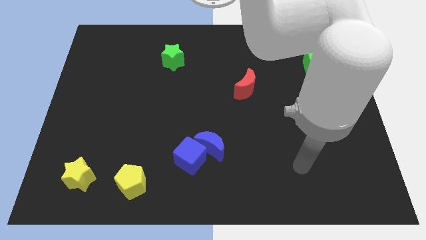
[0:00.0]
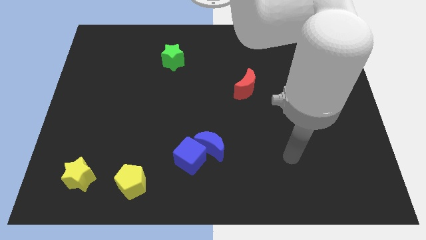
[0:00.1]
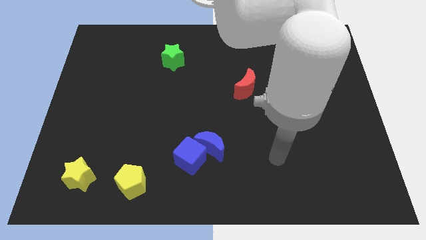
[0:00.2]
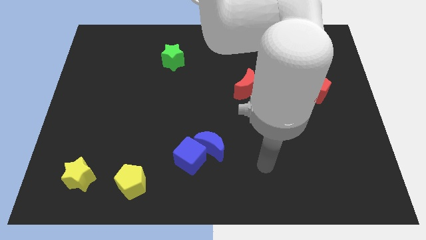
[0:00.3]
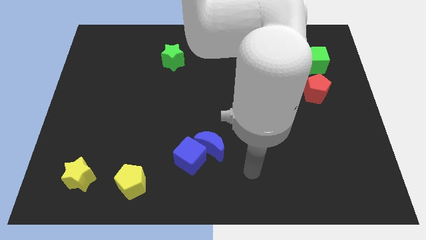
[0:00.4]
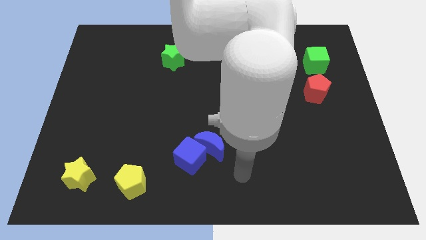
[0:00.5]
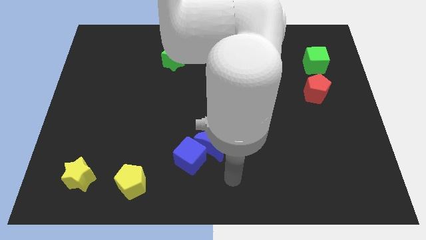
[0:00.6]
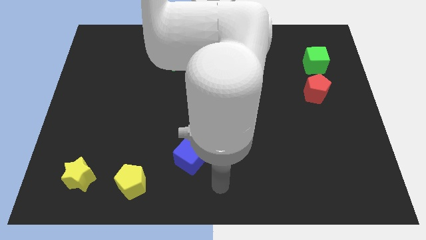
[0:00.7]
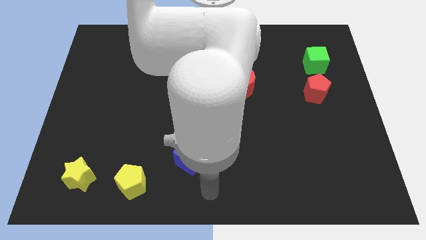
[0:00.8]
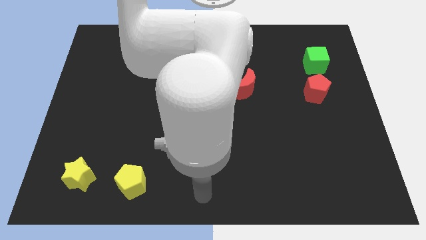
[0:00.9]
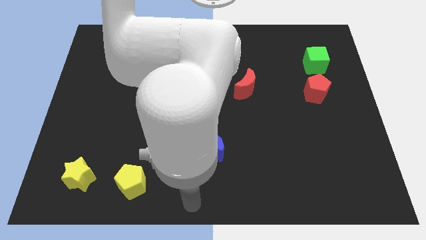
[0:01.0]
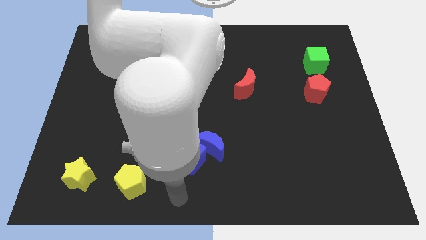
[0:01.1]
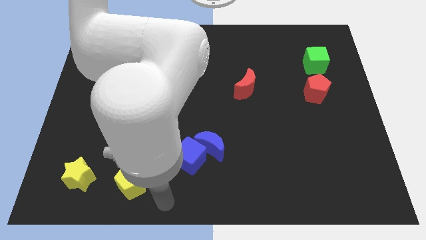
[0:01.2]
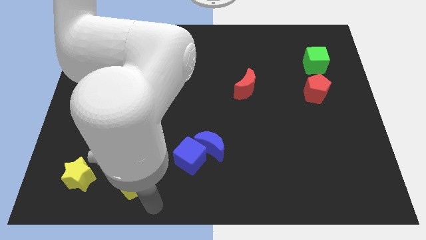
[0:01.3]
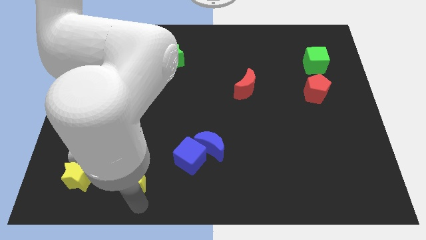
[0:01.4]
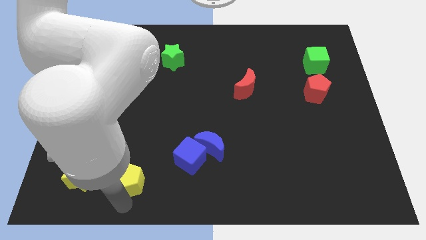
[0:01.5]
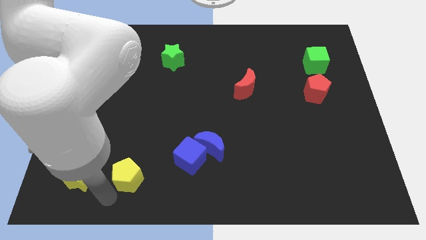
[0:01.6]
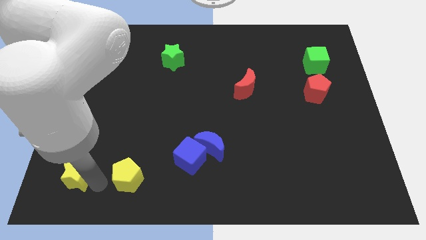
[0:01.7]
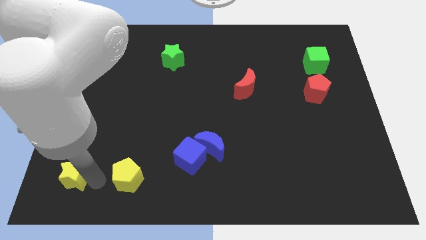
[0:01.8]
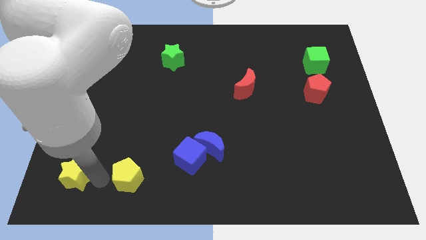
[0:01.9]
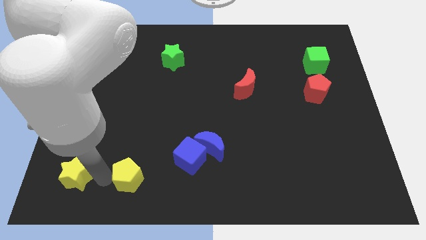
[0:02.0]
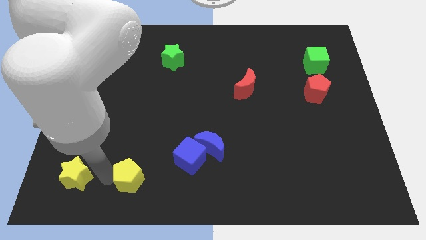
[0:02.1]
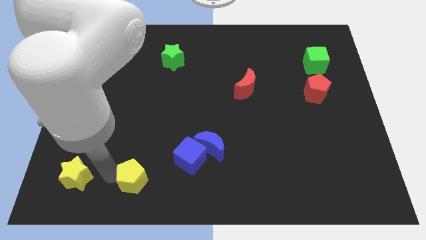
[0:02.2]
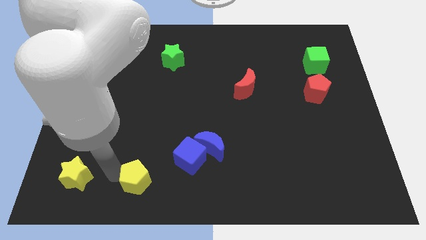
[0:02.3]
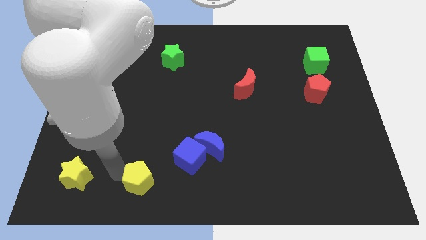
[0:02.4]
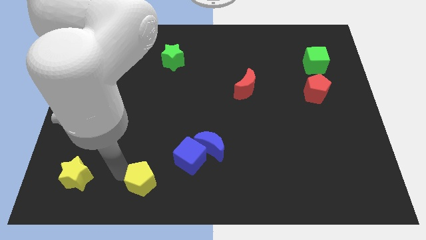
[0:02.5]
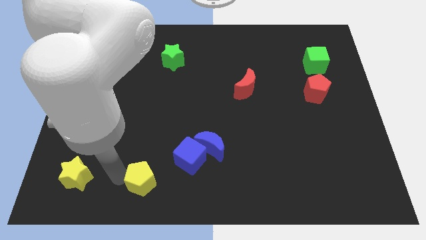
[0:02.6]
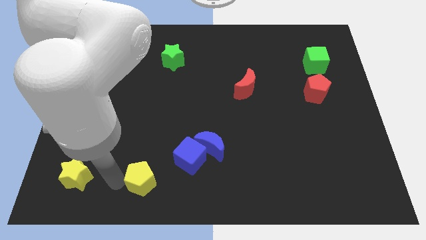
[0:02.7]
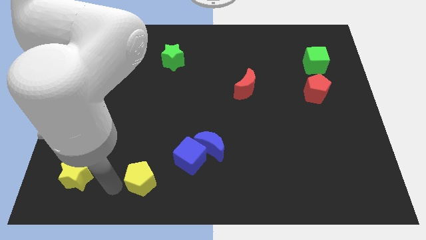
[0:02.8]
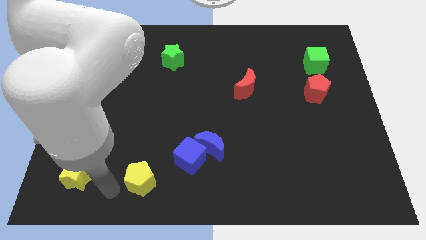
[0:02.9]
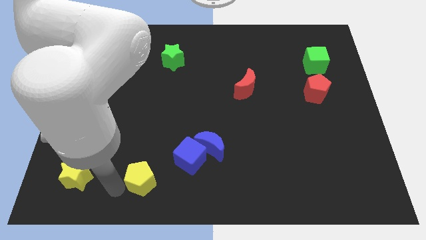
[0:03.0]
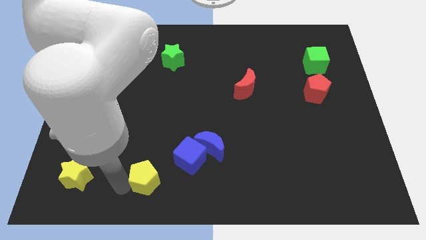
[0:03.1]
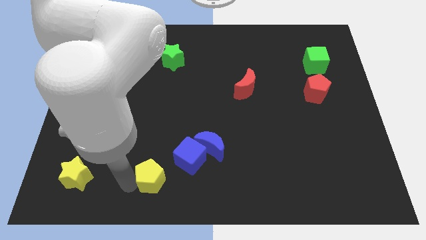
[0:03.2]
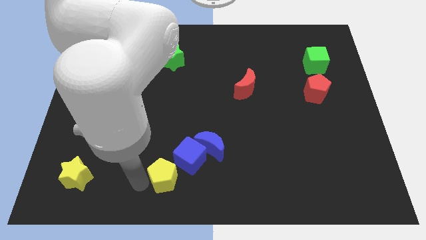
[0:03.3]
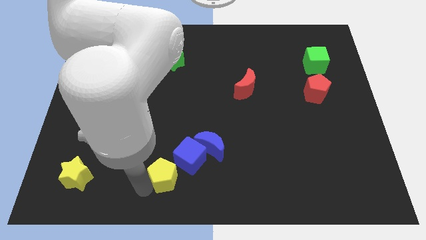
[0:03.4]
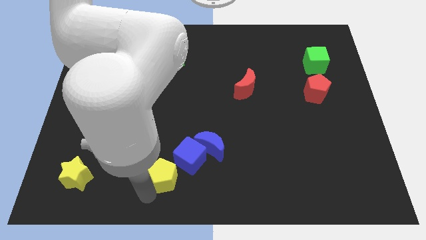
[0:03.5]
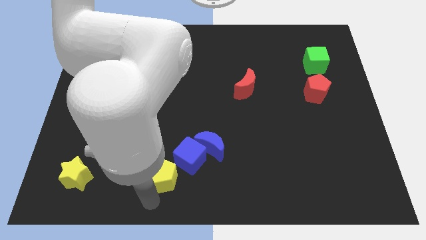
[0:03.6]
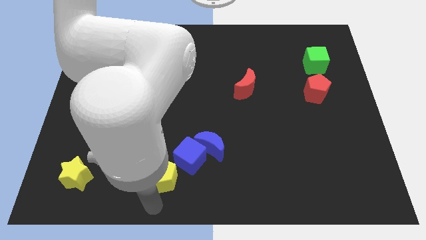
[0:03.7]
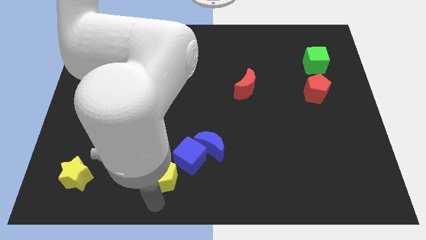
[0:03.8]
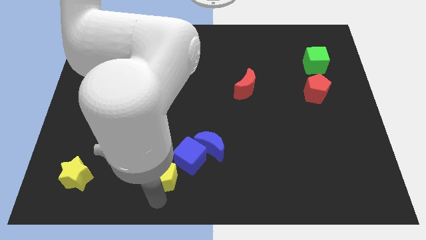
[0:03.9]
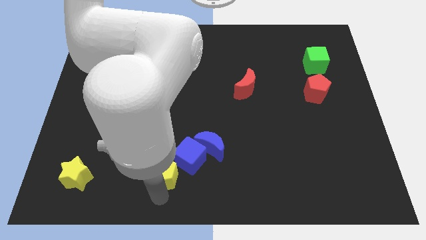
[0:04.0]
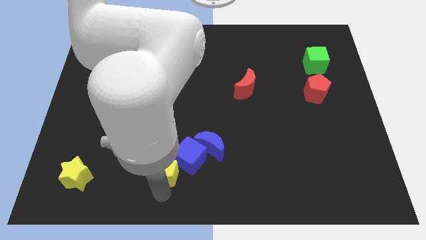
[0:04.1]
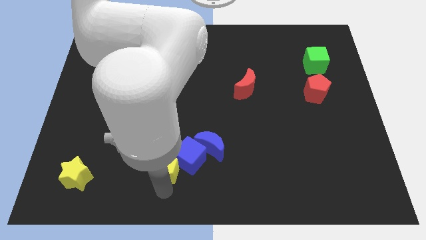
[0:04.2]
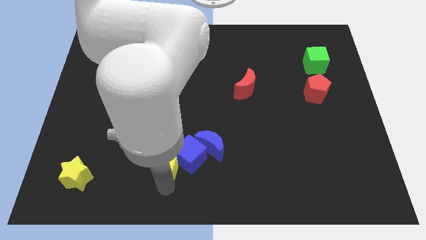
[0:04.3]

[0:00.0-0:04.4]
slide the yellow pentagon upwards and right a little bit

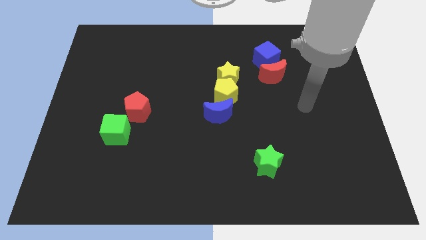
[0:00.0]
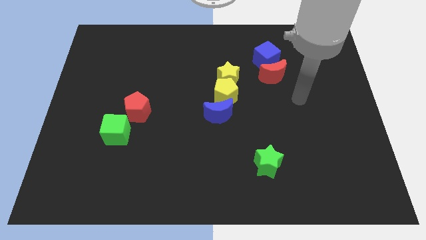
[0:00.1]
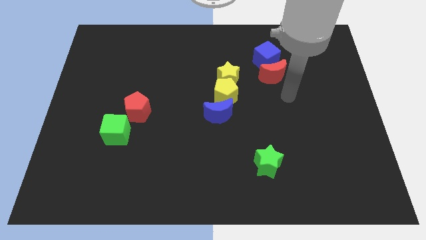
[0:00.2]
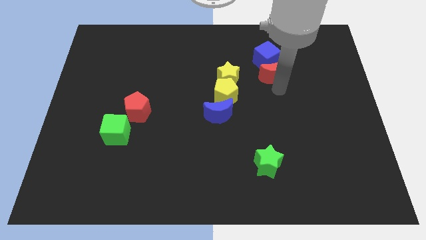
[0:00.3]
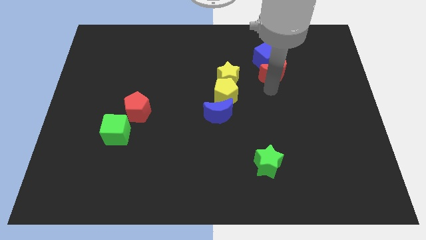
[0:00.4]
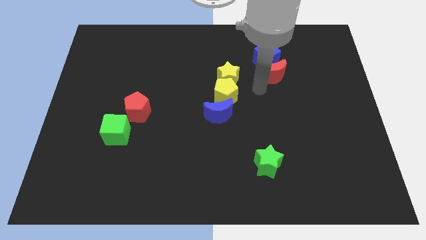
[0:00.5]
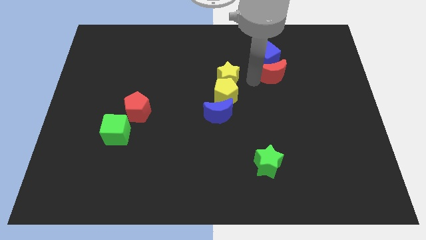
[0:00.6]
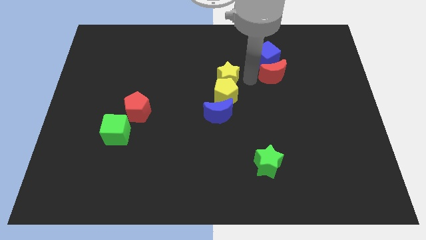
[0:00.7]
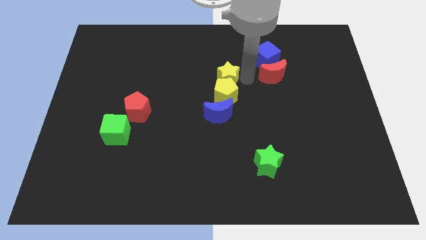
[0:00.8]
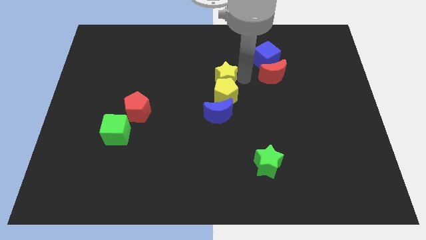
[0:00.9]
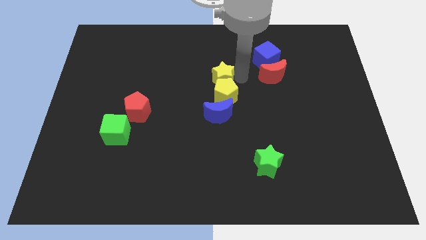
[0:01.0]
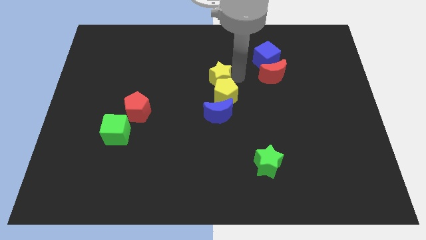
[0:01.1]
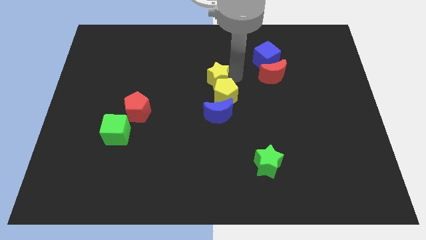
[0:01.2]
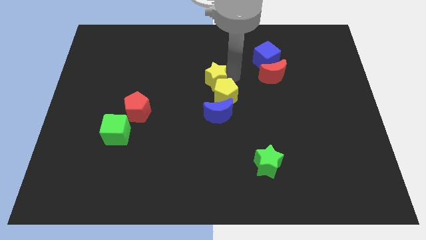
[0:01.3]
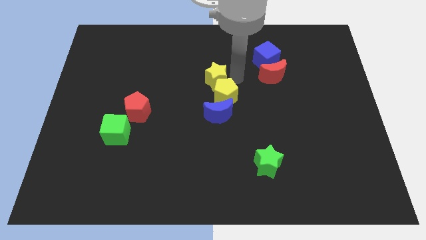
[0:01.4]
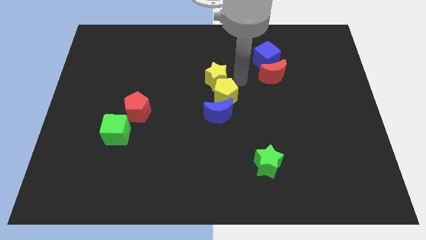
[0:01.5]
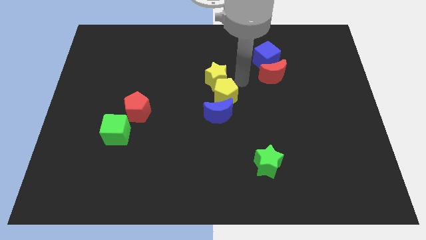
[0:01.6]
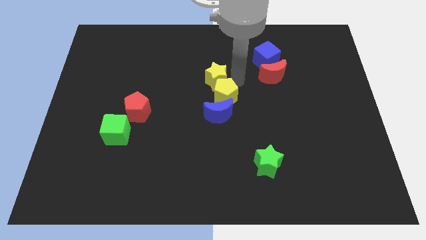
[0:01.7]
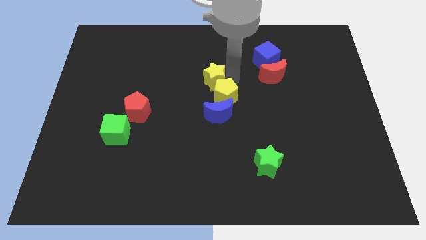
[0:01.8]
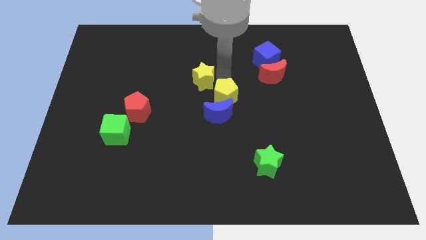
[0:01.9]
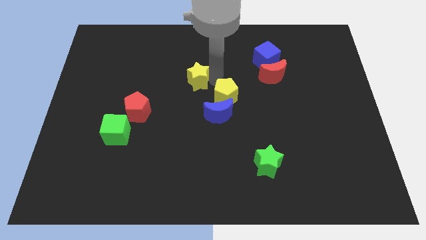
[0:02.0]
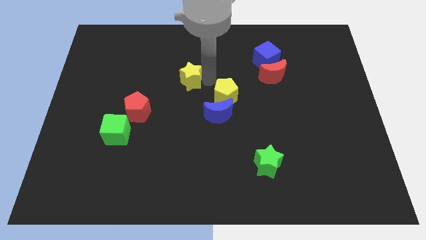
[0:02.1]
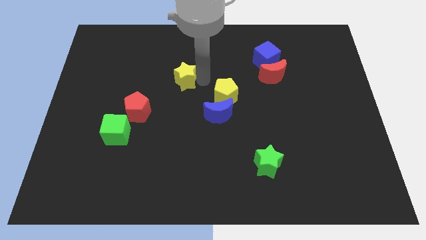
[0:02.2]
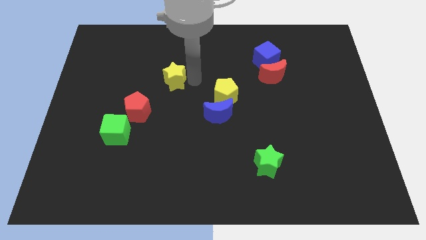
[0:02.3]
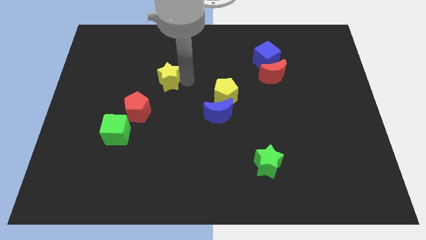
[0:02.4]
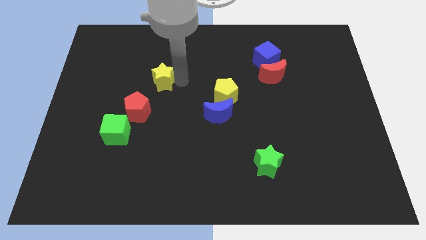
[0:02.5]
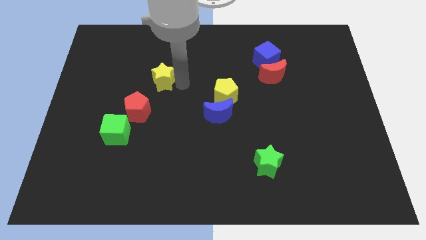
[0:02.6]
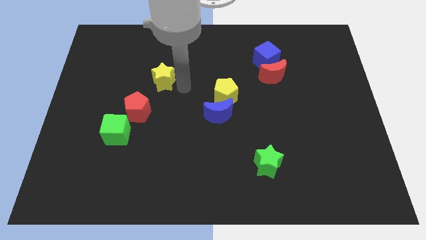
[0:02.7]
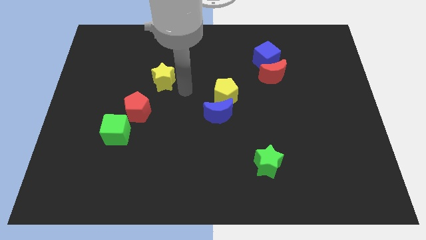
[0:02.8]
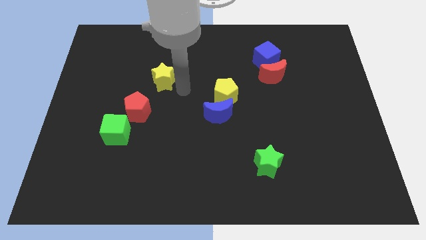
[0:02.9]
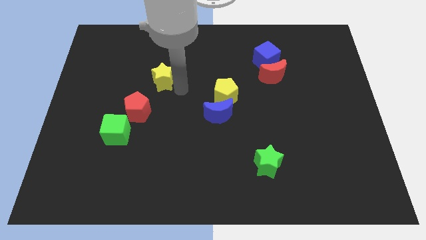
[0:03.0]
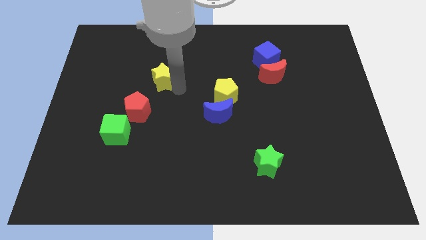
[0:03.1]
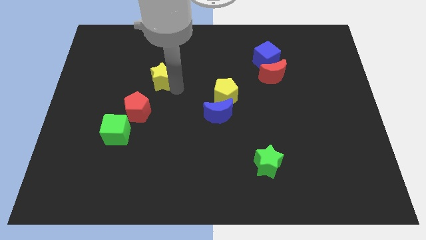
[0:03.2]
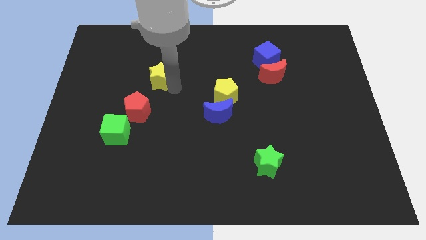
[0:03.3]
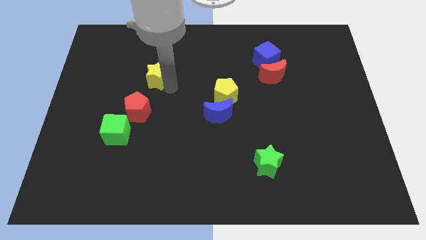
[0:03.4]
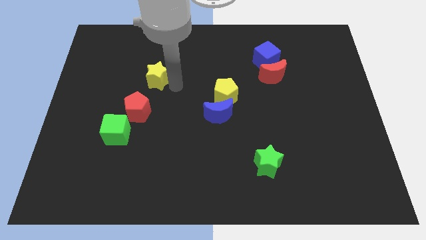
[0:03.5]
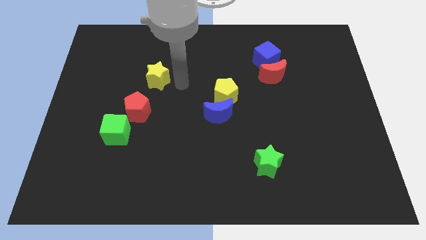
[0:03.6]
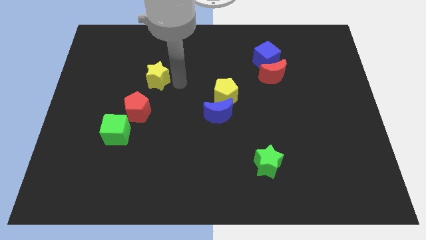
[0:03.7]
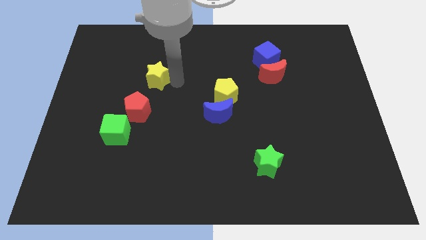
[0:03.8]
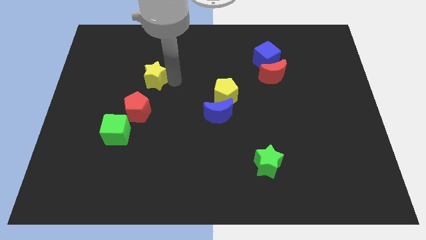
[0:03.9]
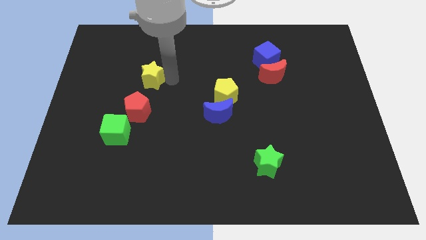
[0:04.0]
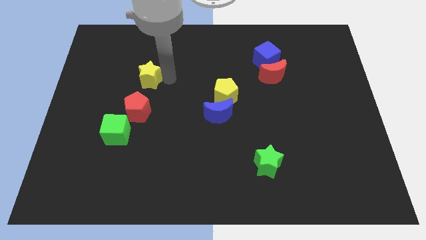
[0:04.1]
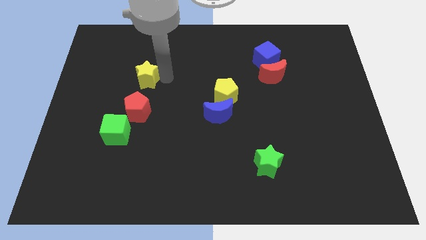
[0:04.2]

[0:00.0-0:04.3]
push the yellow star to the left
